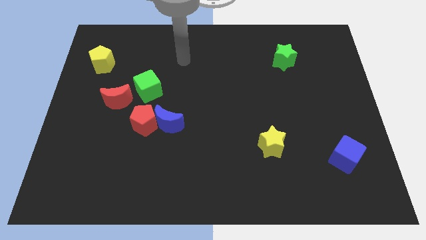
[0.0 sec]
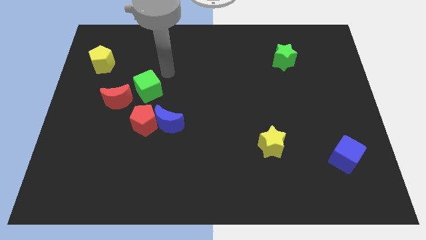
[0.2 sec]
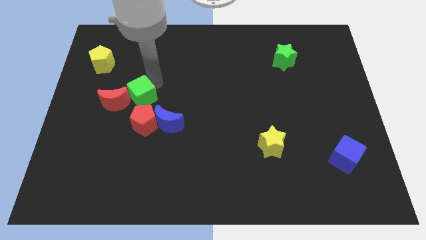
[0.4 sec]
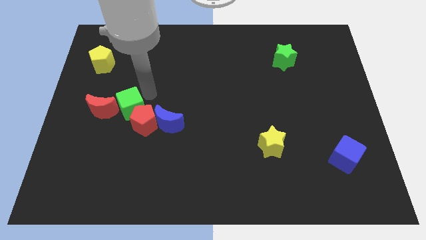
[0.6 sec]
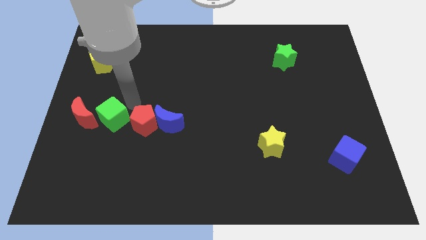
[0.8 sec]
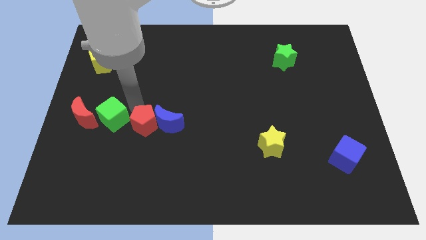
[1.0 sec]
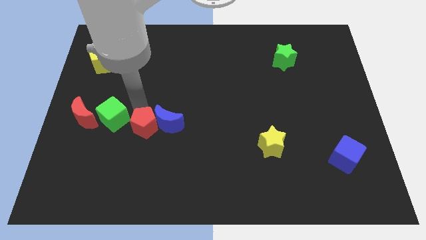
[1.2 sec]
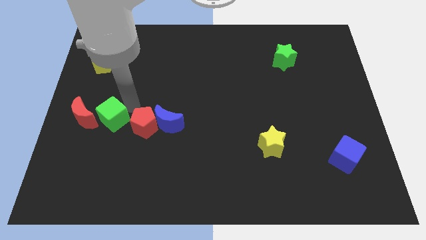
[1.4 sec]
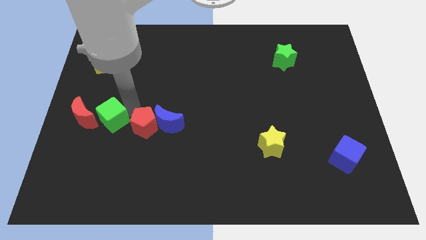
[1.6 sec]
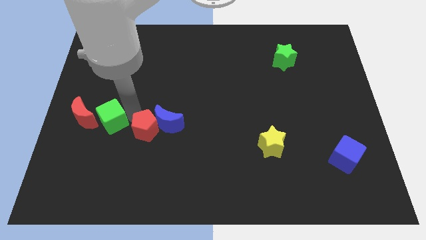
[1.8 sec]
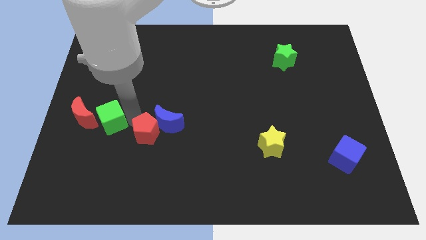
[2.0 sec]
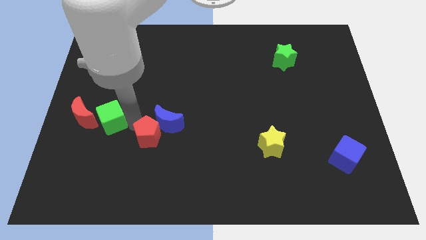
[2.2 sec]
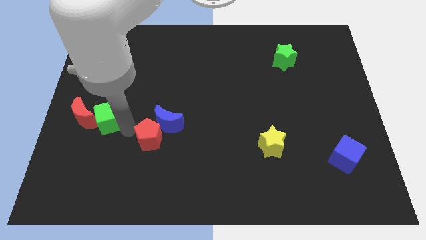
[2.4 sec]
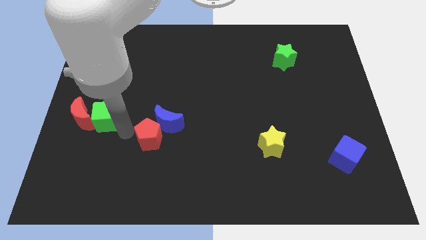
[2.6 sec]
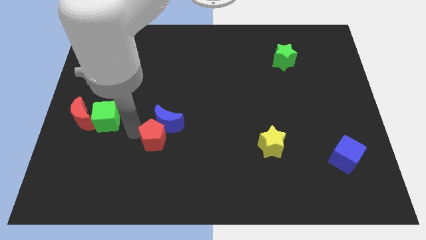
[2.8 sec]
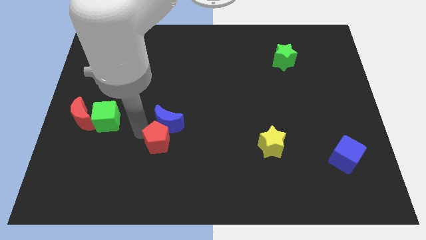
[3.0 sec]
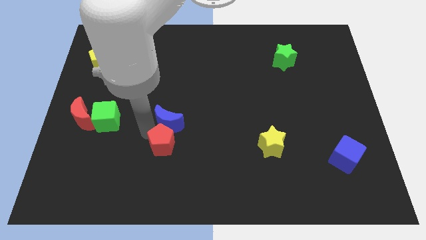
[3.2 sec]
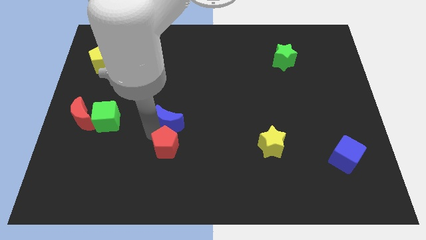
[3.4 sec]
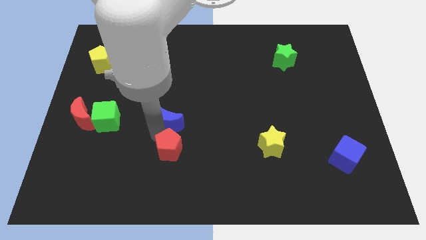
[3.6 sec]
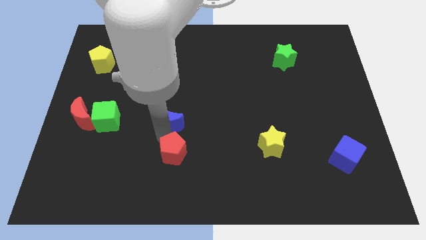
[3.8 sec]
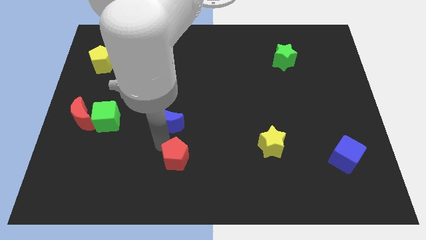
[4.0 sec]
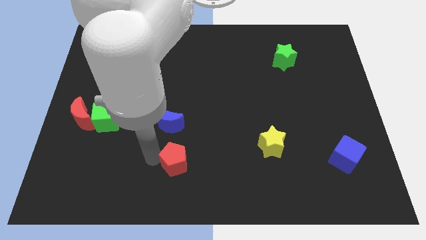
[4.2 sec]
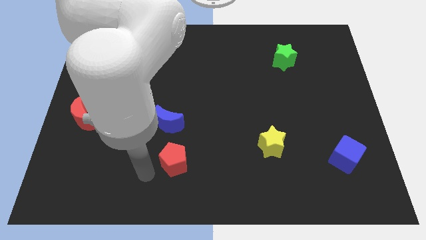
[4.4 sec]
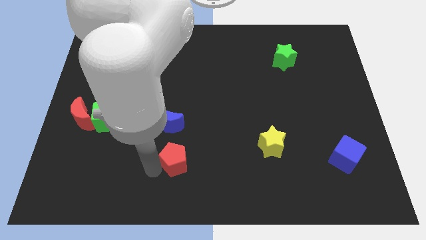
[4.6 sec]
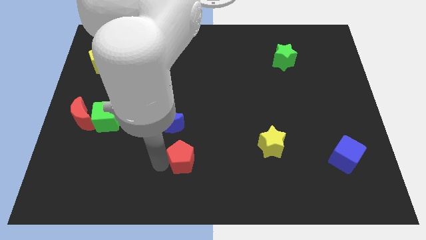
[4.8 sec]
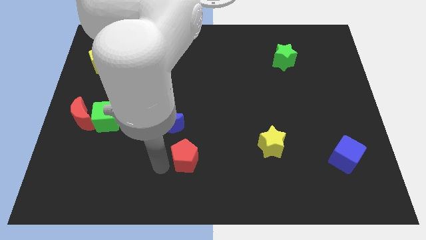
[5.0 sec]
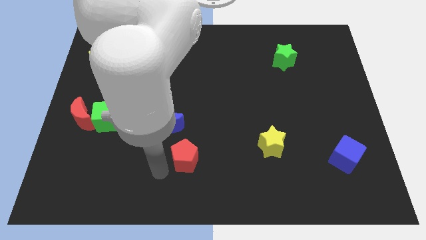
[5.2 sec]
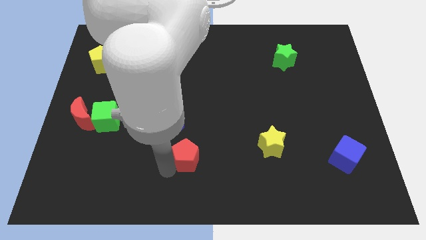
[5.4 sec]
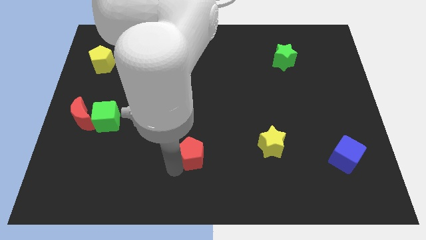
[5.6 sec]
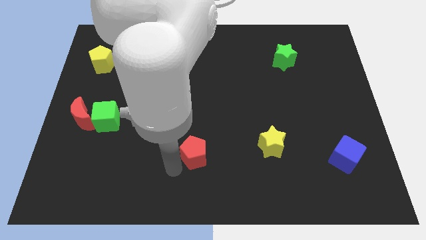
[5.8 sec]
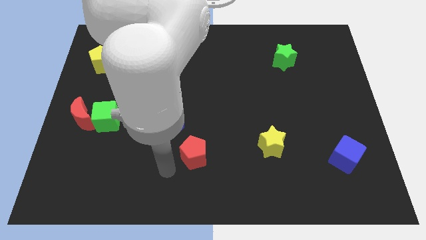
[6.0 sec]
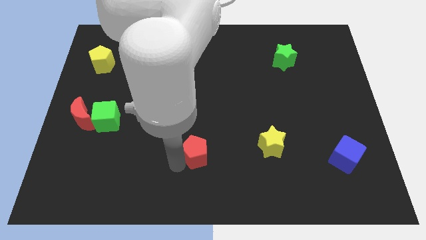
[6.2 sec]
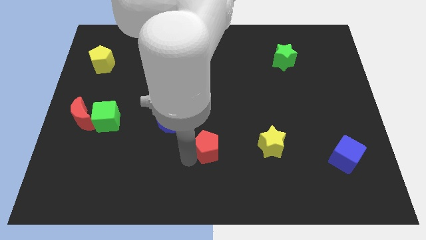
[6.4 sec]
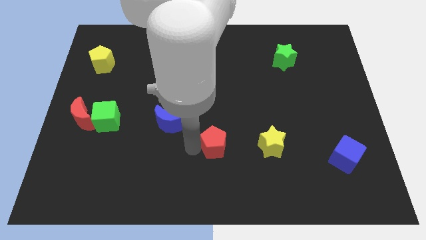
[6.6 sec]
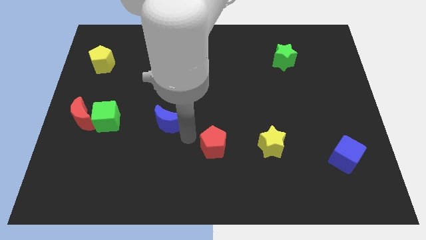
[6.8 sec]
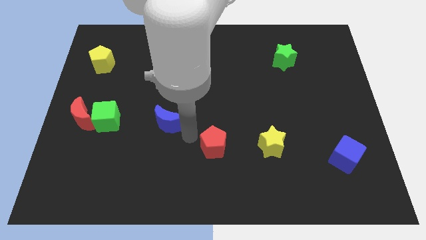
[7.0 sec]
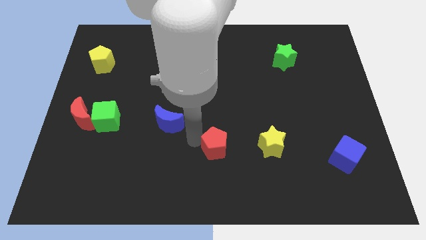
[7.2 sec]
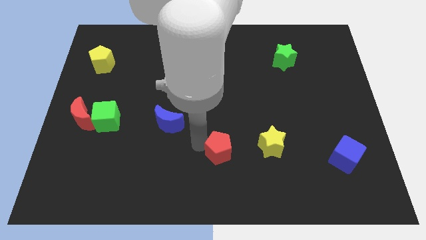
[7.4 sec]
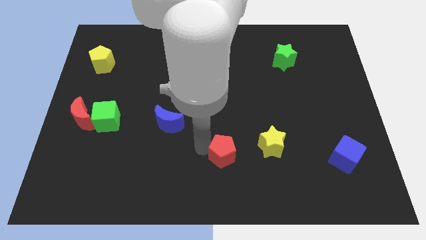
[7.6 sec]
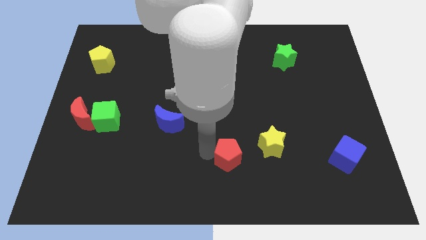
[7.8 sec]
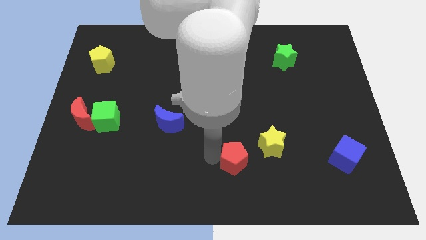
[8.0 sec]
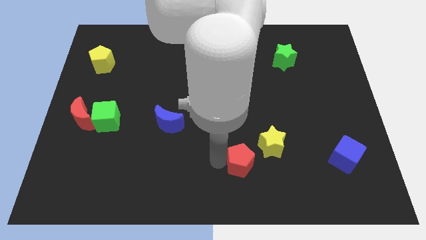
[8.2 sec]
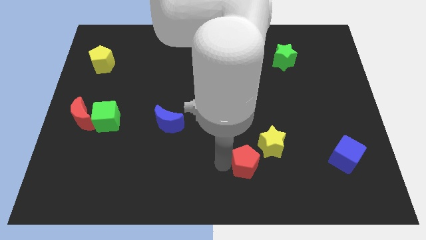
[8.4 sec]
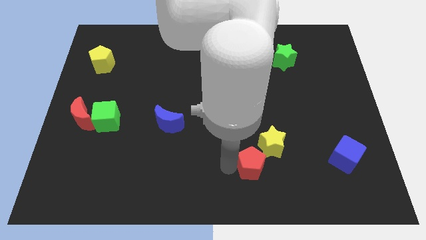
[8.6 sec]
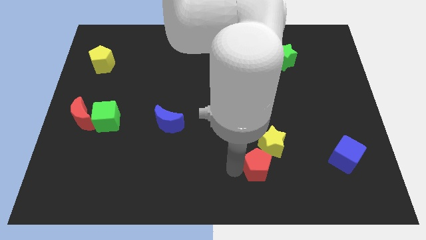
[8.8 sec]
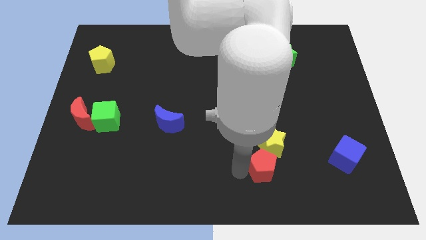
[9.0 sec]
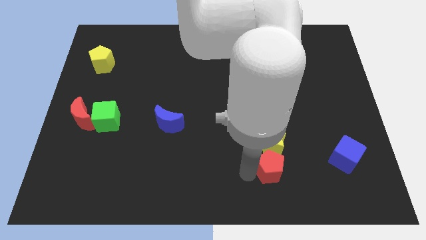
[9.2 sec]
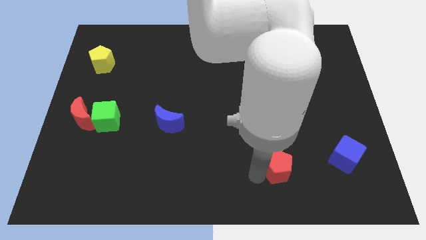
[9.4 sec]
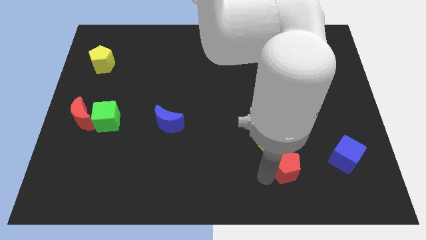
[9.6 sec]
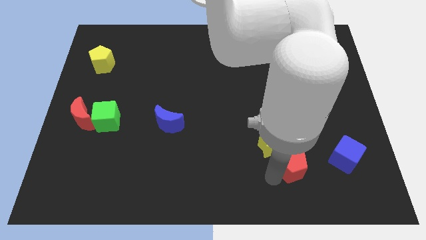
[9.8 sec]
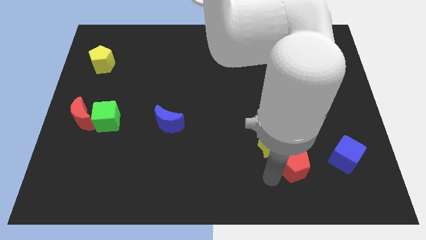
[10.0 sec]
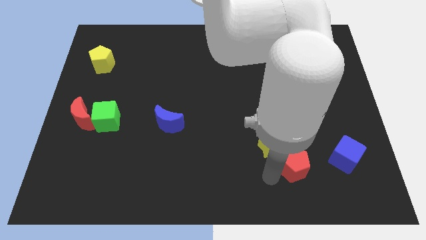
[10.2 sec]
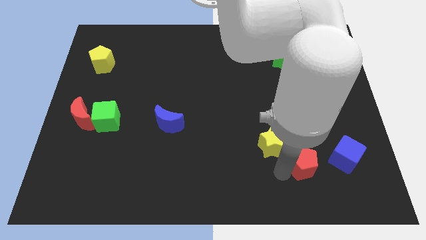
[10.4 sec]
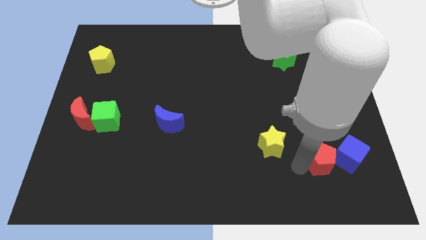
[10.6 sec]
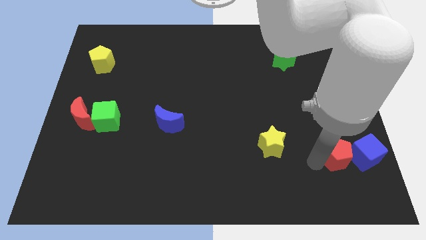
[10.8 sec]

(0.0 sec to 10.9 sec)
push the red pentagon close to the blue cube

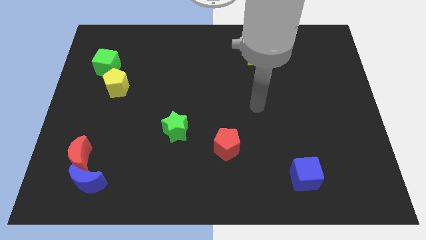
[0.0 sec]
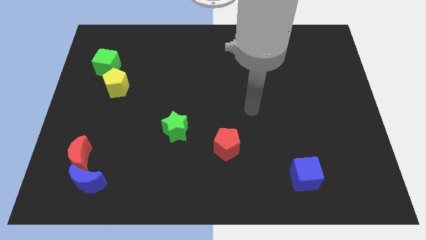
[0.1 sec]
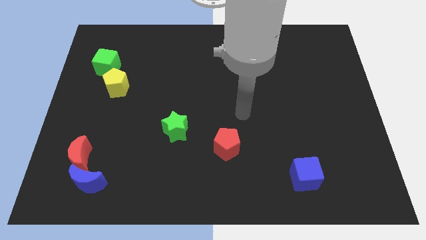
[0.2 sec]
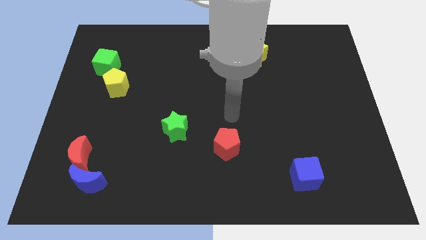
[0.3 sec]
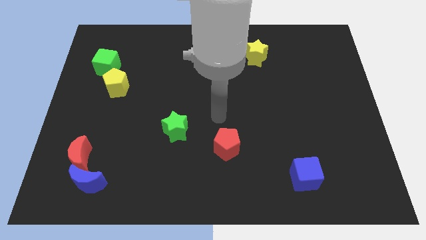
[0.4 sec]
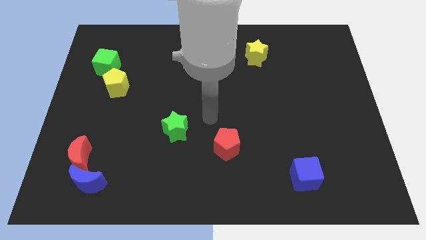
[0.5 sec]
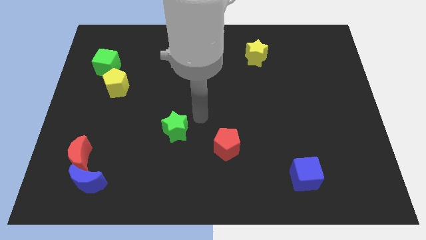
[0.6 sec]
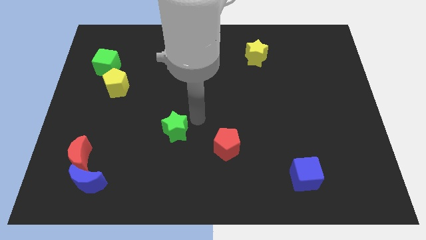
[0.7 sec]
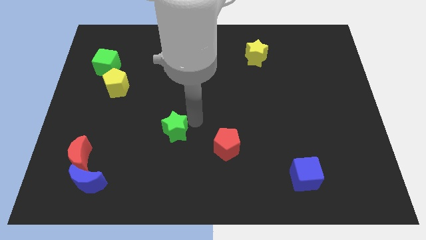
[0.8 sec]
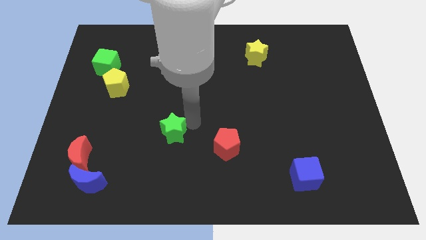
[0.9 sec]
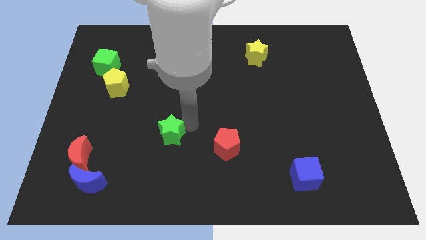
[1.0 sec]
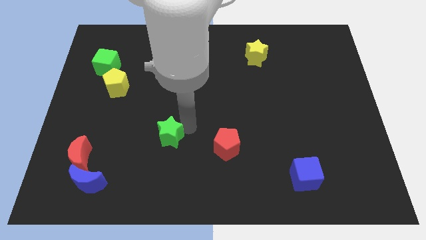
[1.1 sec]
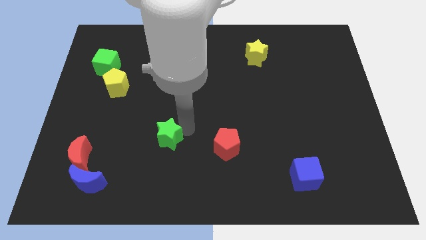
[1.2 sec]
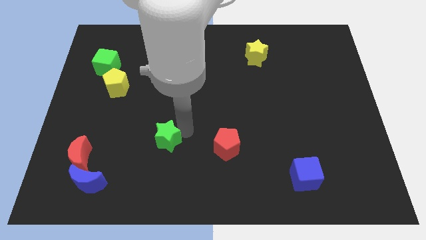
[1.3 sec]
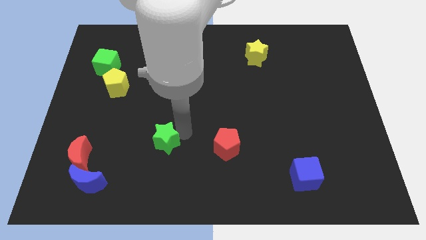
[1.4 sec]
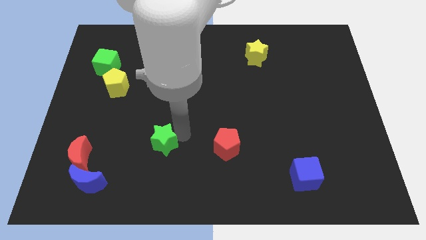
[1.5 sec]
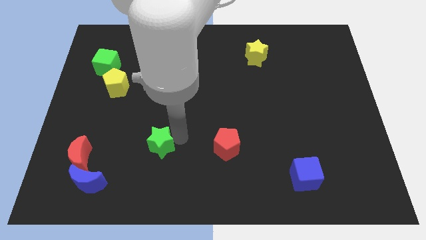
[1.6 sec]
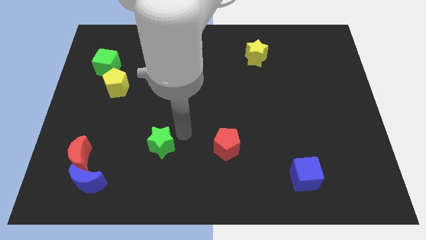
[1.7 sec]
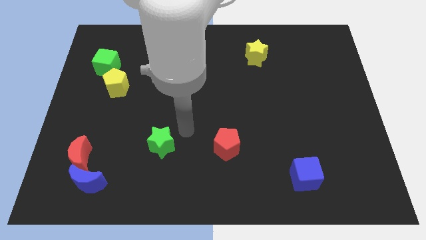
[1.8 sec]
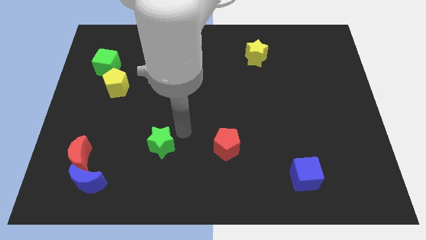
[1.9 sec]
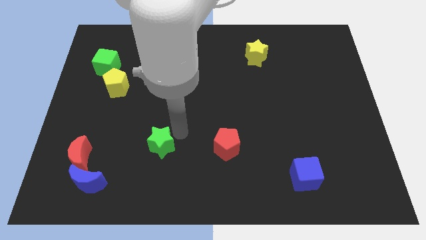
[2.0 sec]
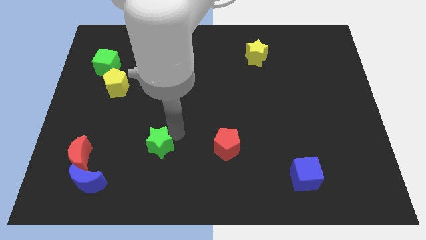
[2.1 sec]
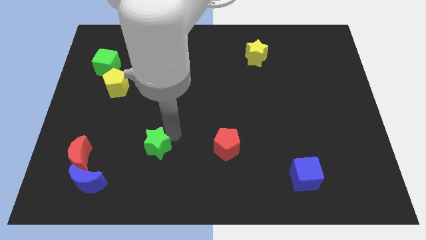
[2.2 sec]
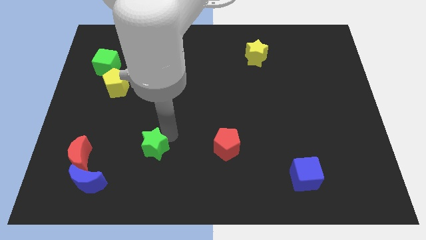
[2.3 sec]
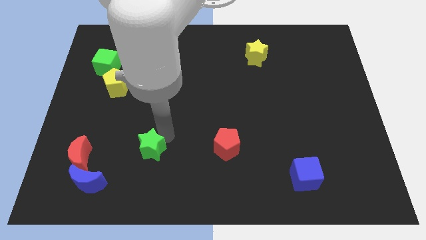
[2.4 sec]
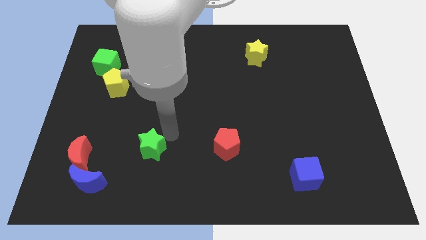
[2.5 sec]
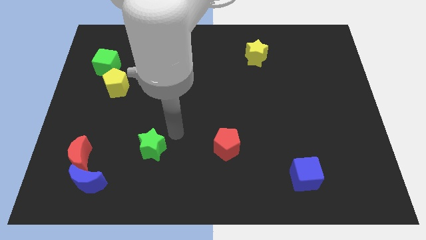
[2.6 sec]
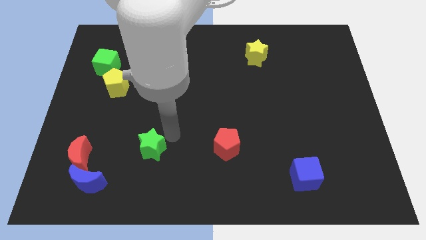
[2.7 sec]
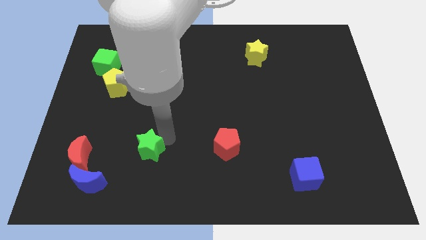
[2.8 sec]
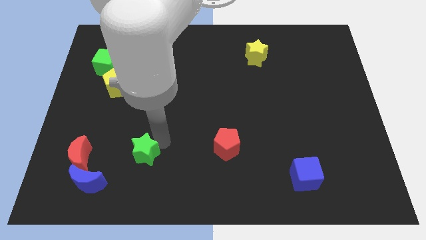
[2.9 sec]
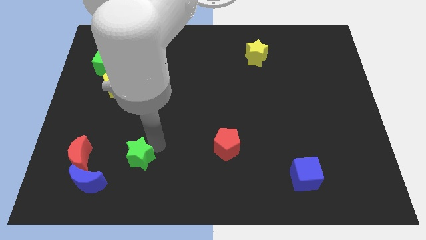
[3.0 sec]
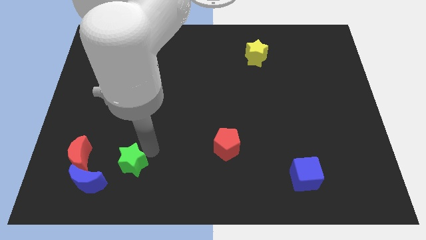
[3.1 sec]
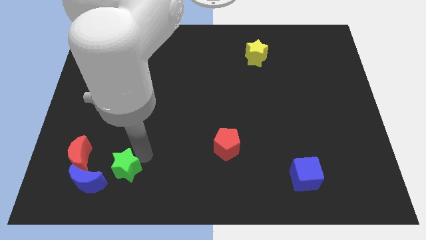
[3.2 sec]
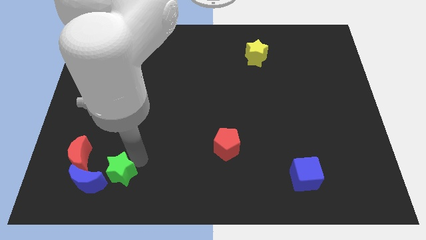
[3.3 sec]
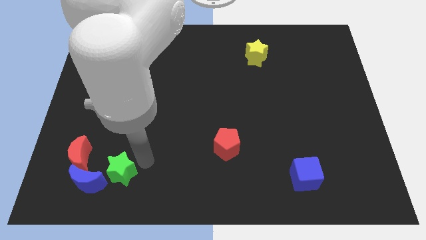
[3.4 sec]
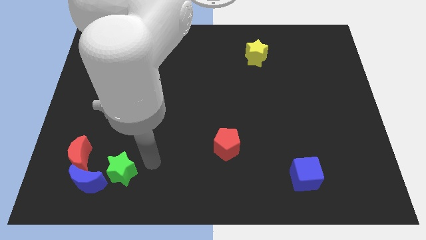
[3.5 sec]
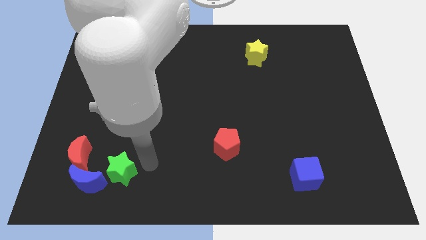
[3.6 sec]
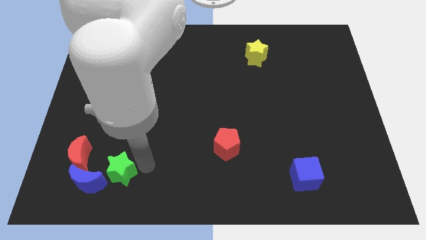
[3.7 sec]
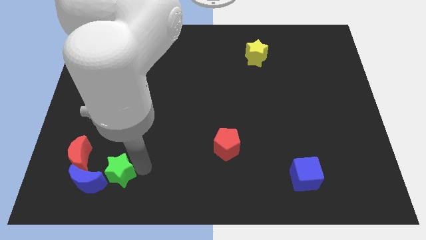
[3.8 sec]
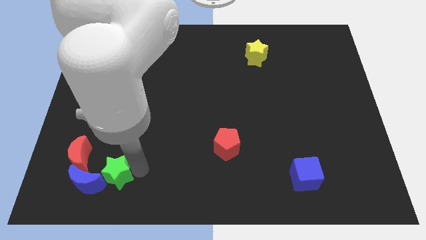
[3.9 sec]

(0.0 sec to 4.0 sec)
move the green star close to the blue moon
